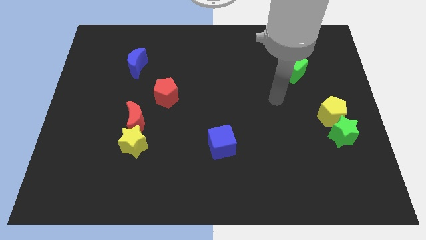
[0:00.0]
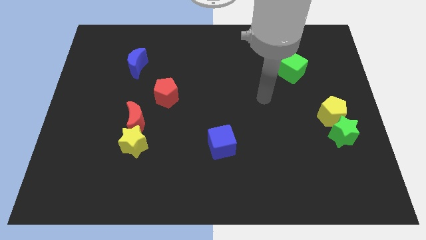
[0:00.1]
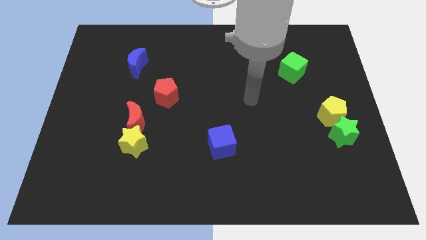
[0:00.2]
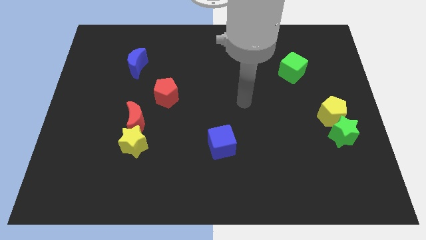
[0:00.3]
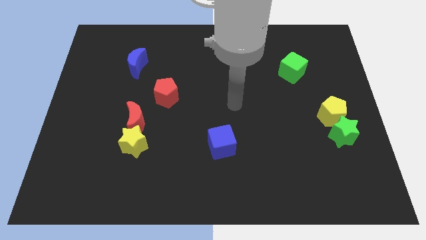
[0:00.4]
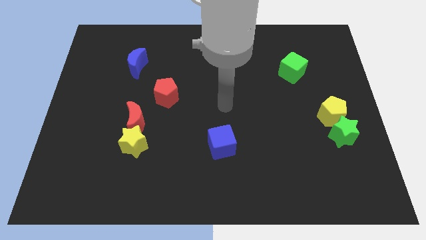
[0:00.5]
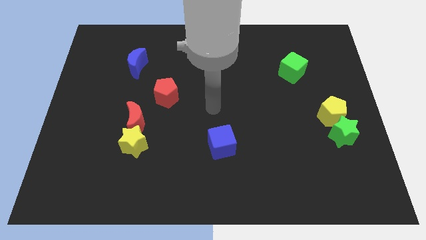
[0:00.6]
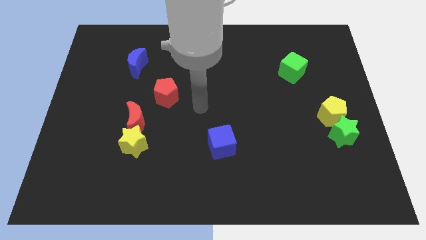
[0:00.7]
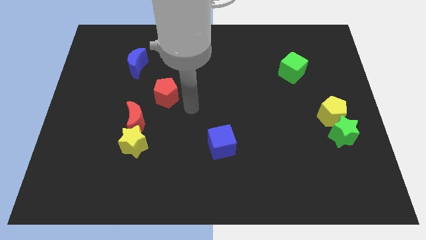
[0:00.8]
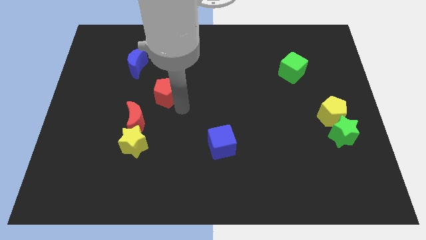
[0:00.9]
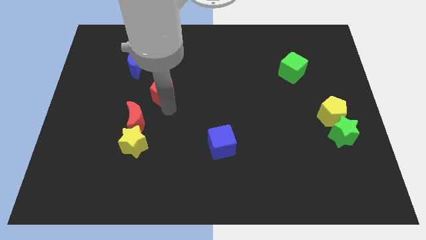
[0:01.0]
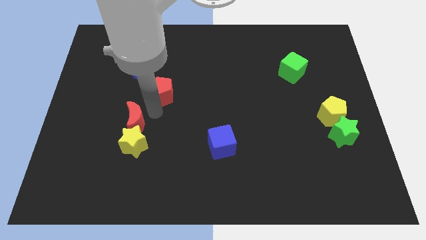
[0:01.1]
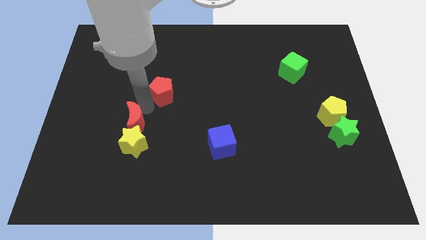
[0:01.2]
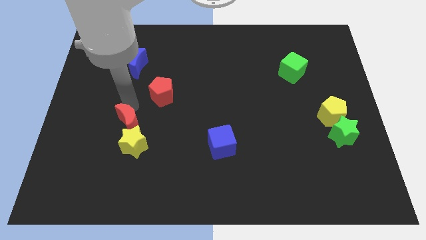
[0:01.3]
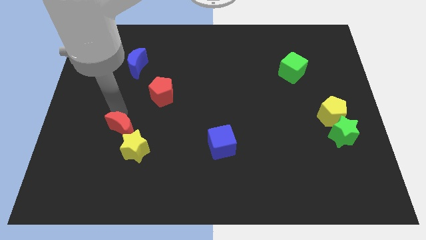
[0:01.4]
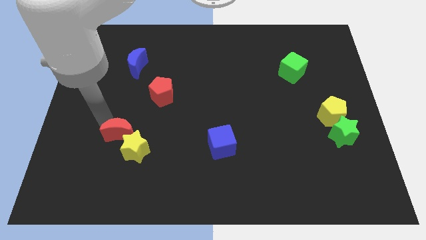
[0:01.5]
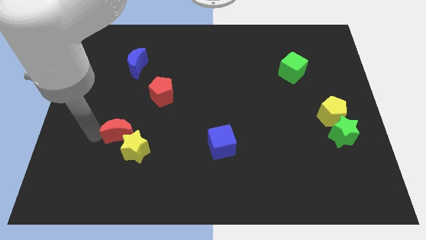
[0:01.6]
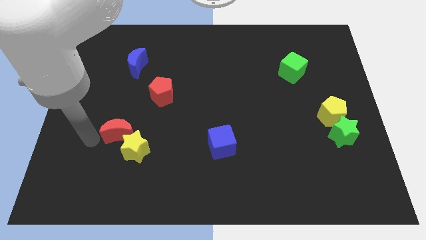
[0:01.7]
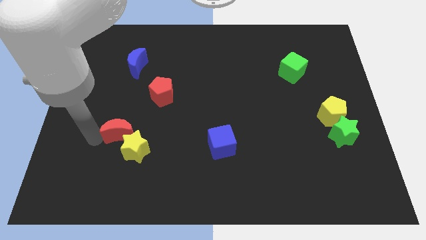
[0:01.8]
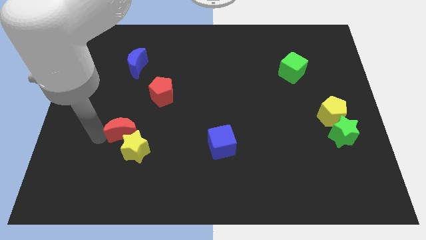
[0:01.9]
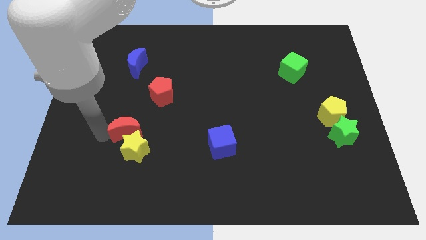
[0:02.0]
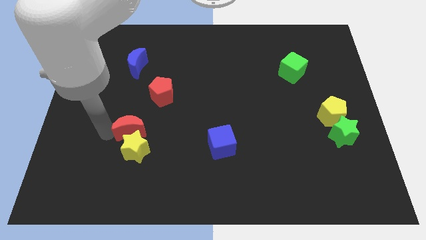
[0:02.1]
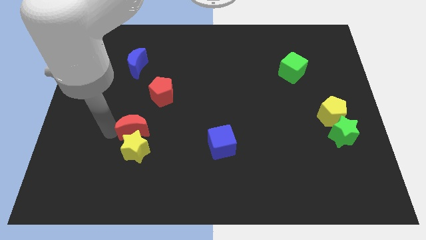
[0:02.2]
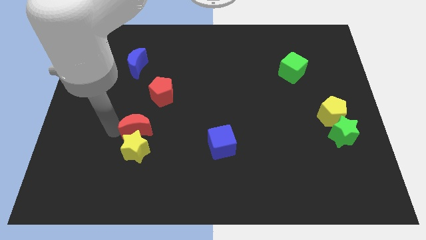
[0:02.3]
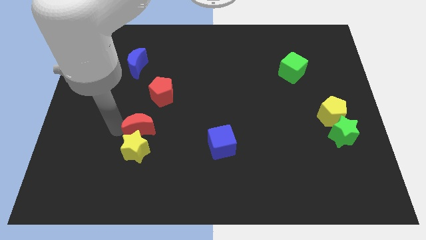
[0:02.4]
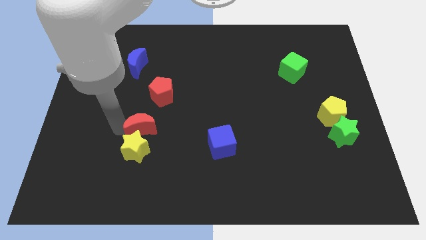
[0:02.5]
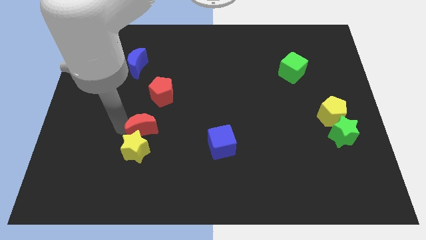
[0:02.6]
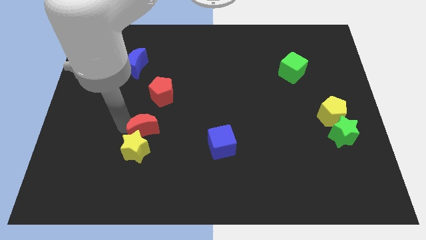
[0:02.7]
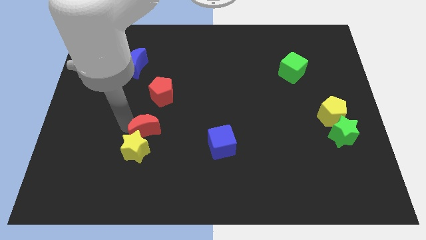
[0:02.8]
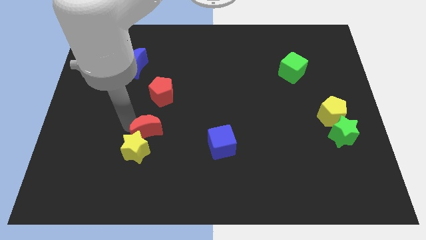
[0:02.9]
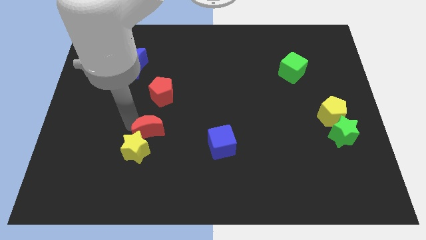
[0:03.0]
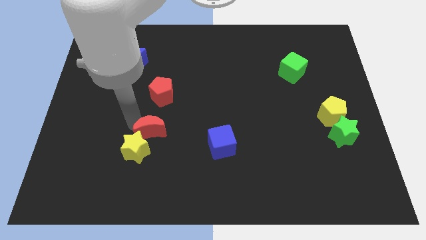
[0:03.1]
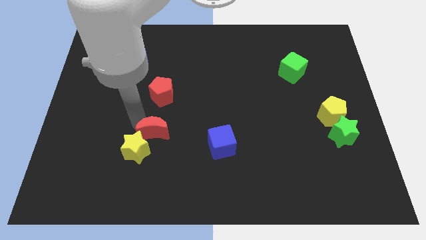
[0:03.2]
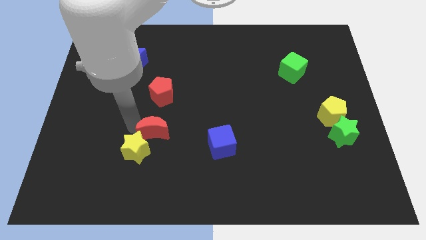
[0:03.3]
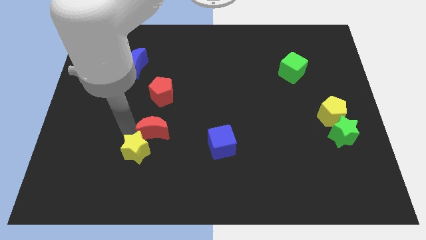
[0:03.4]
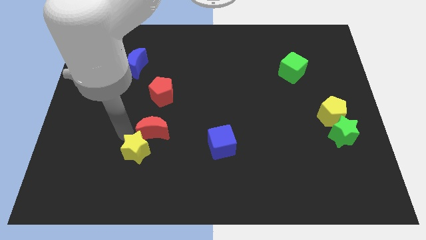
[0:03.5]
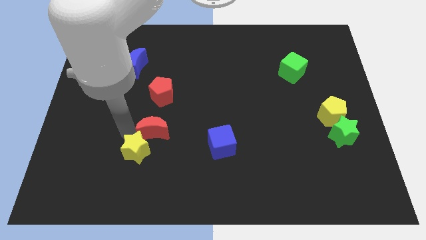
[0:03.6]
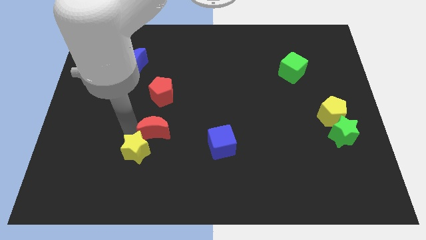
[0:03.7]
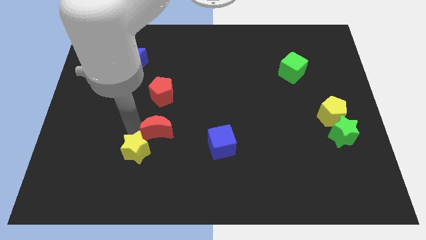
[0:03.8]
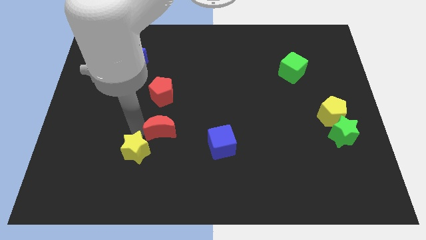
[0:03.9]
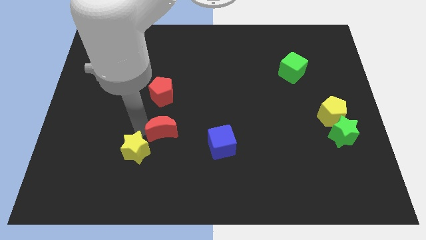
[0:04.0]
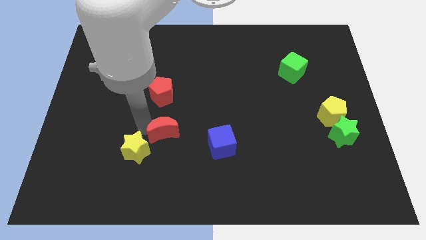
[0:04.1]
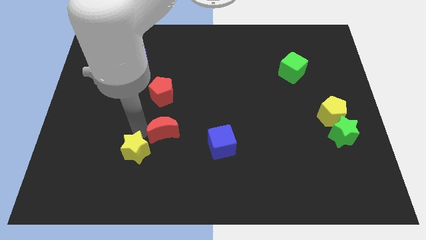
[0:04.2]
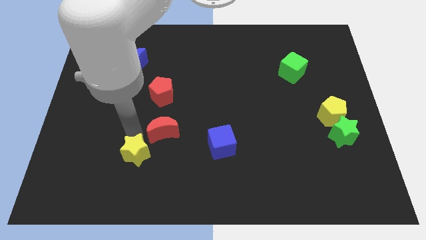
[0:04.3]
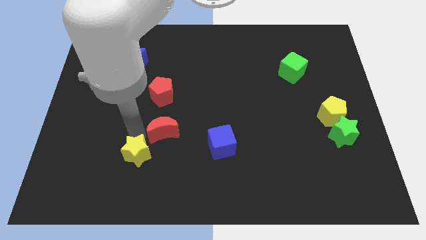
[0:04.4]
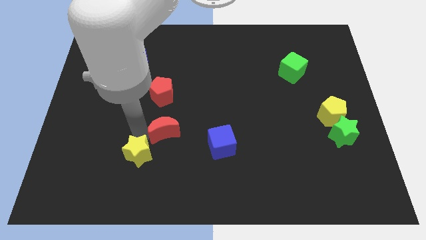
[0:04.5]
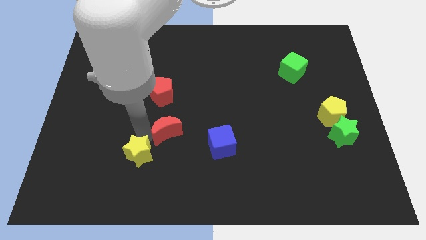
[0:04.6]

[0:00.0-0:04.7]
push the red moon to the right a little bit

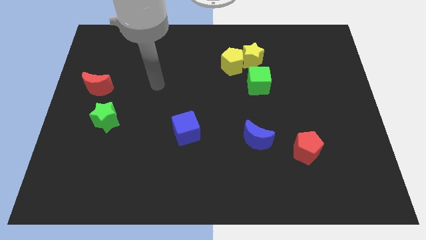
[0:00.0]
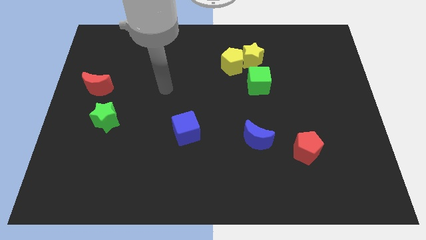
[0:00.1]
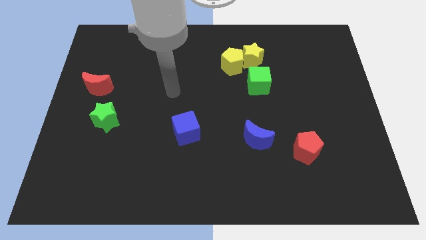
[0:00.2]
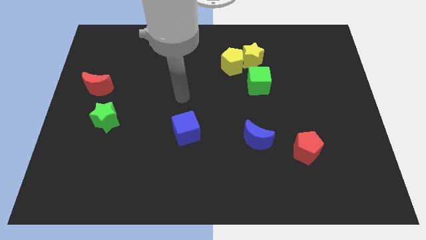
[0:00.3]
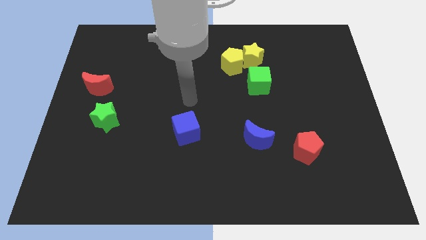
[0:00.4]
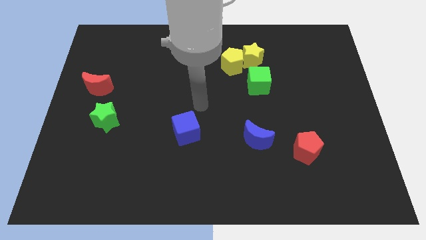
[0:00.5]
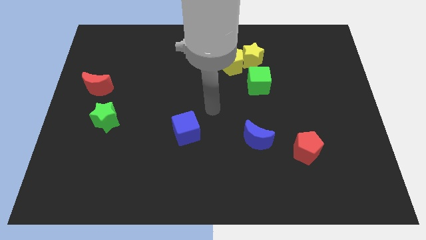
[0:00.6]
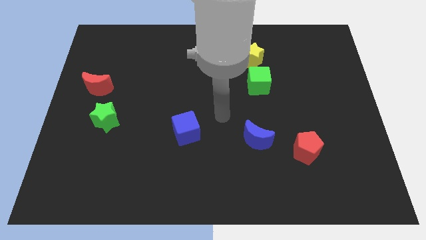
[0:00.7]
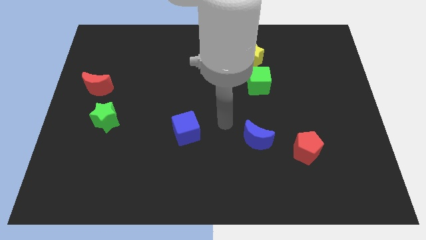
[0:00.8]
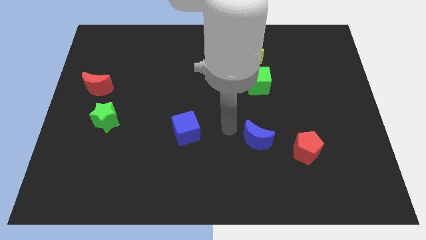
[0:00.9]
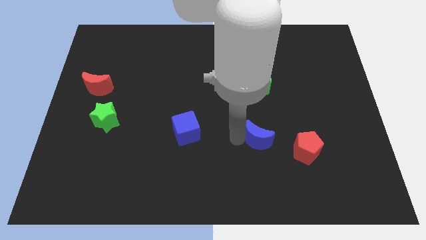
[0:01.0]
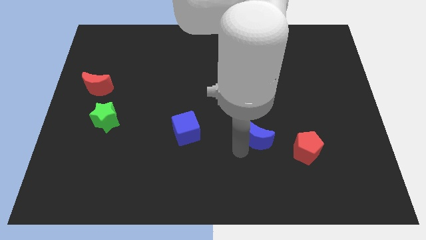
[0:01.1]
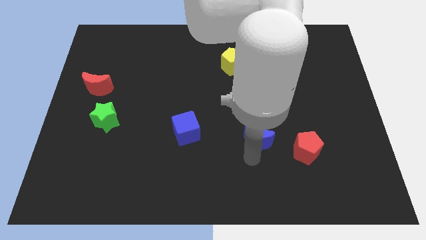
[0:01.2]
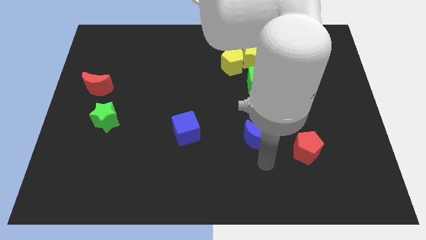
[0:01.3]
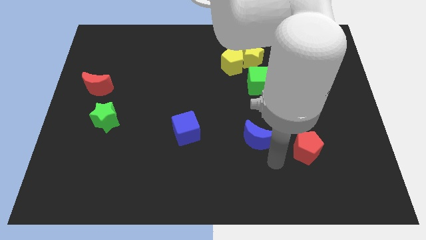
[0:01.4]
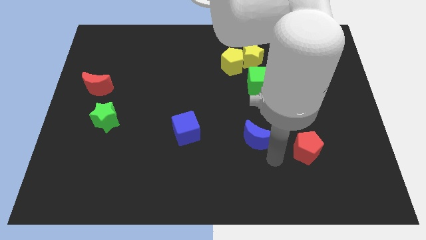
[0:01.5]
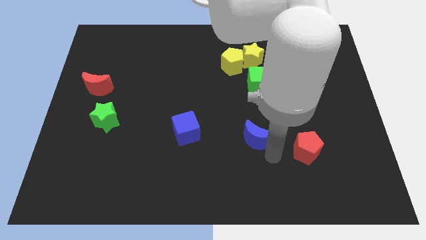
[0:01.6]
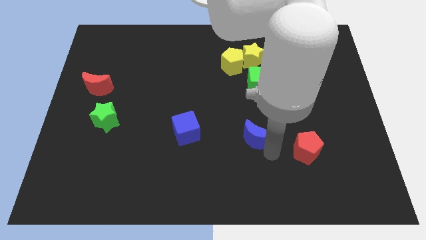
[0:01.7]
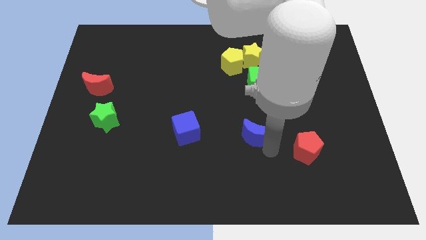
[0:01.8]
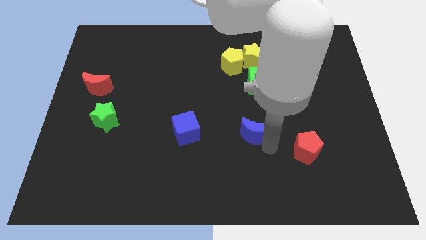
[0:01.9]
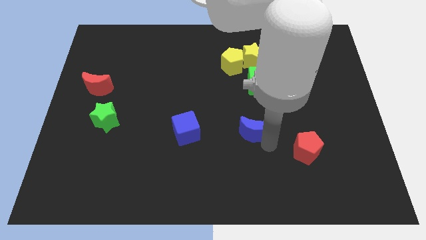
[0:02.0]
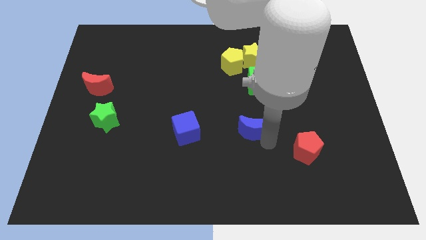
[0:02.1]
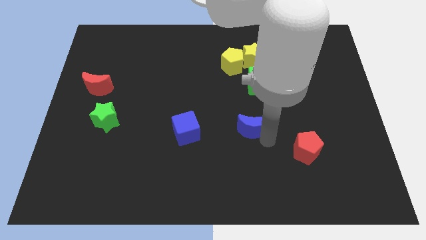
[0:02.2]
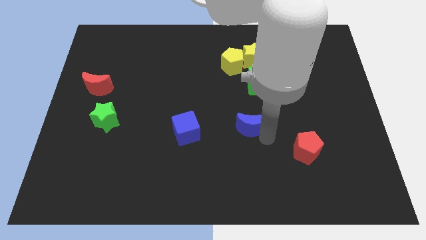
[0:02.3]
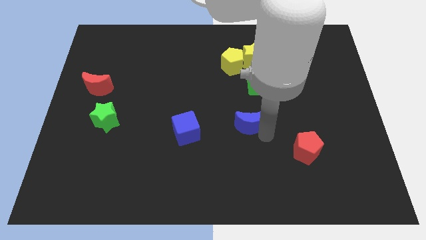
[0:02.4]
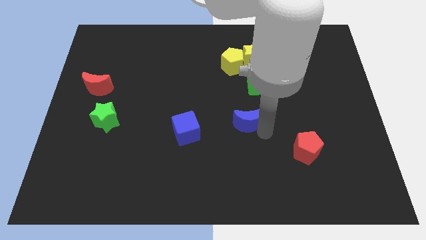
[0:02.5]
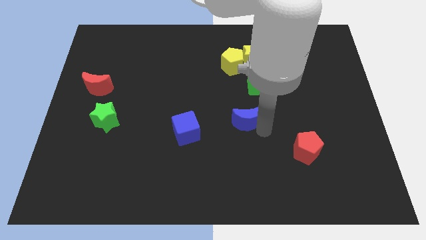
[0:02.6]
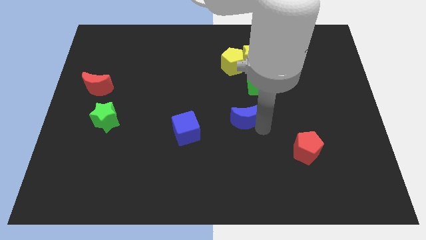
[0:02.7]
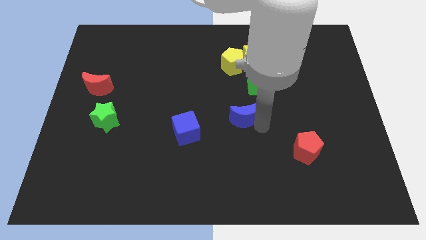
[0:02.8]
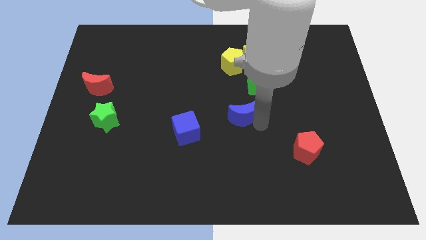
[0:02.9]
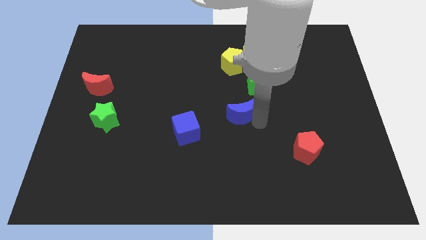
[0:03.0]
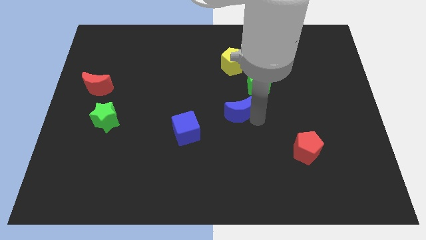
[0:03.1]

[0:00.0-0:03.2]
slide the blue moon a little upwards and then left

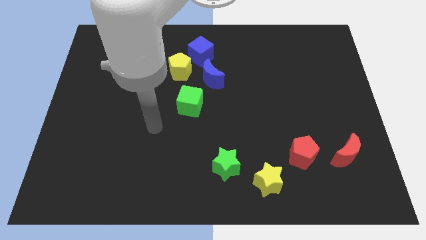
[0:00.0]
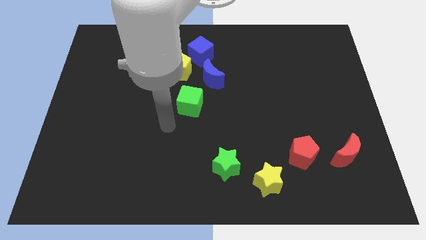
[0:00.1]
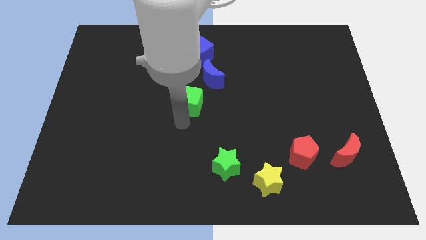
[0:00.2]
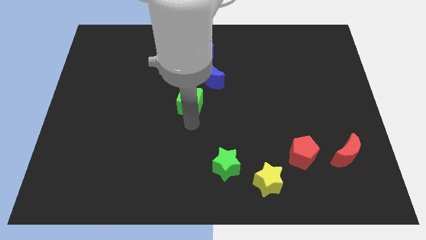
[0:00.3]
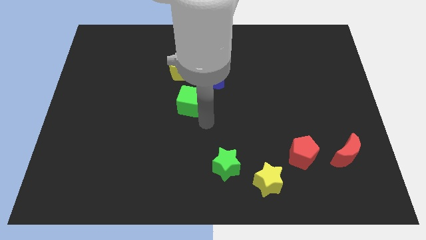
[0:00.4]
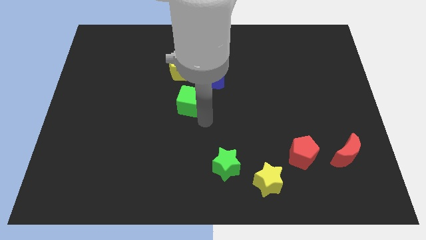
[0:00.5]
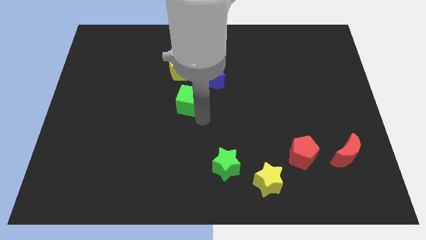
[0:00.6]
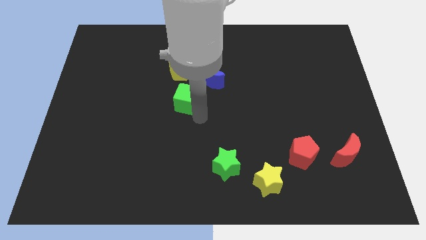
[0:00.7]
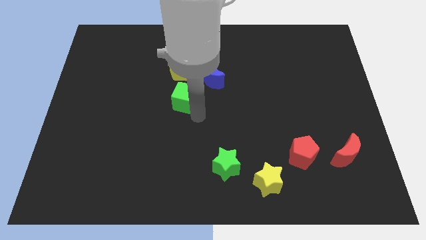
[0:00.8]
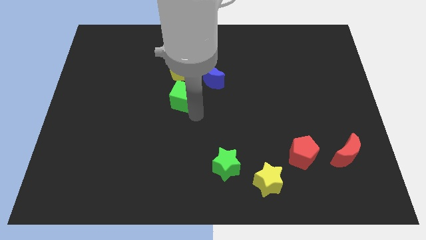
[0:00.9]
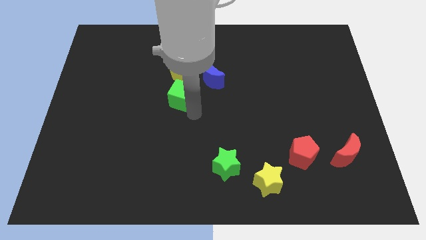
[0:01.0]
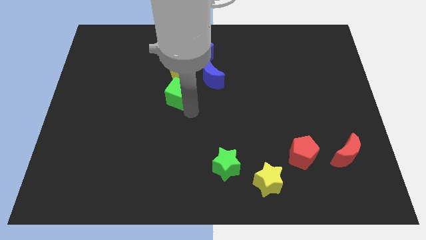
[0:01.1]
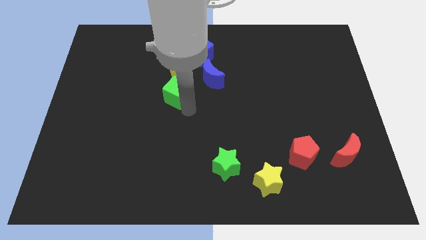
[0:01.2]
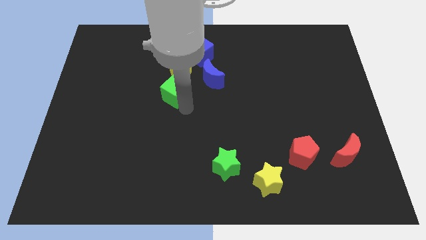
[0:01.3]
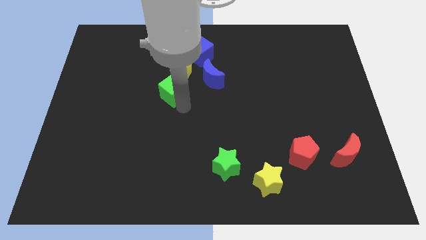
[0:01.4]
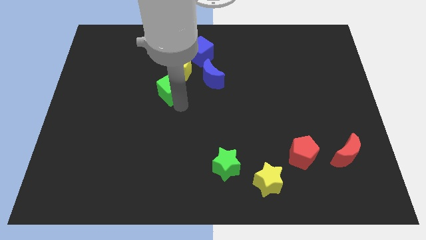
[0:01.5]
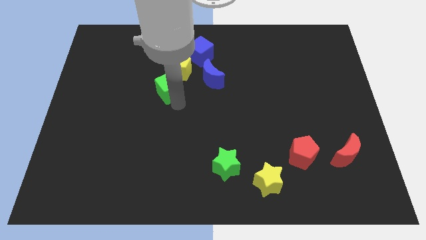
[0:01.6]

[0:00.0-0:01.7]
slide the green cube somewhat up and then left
